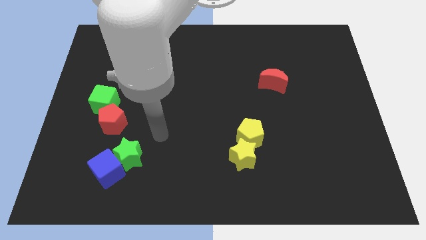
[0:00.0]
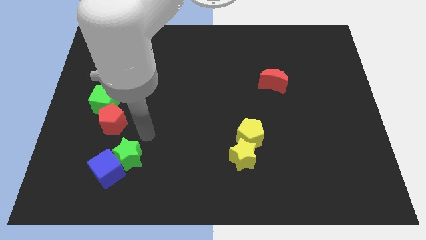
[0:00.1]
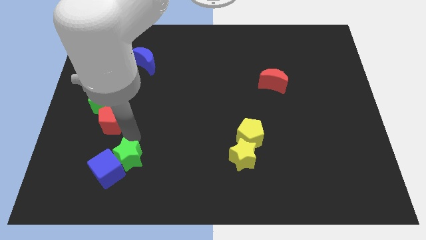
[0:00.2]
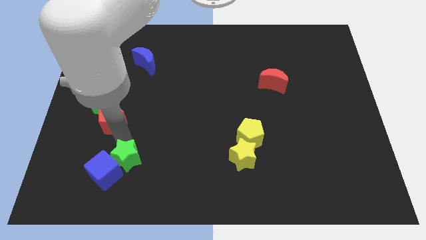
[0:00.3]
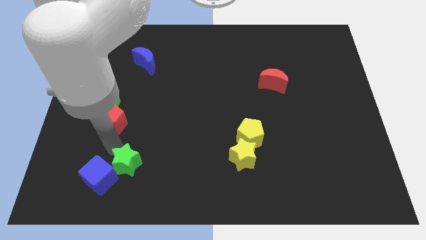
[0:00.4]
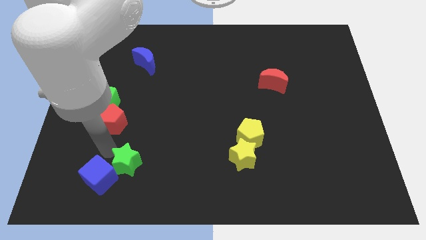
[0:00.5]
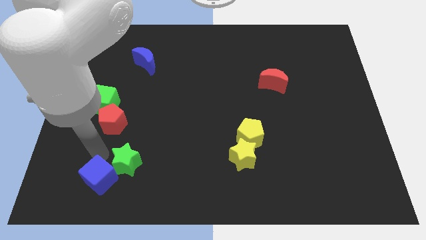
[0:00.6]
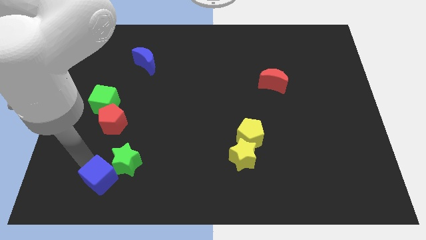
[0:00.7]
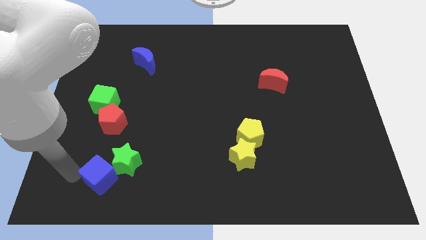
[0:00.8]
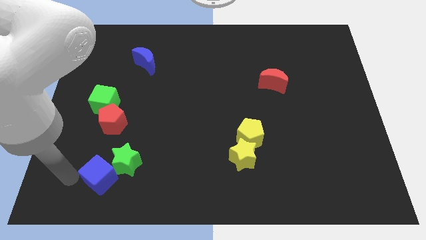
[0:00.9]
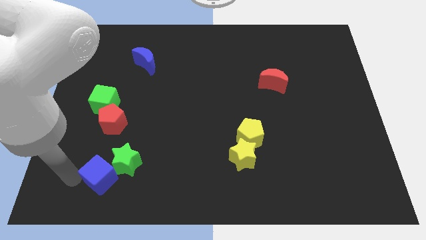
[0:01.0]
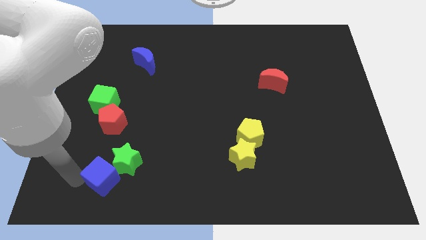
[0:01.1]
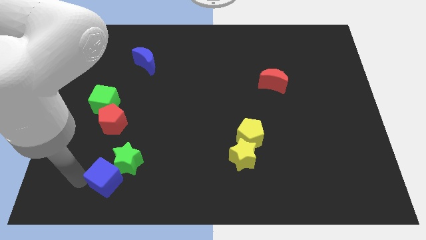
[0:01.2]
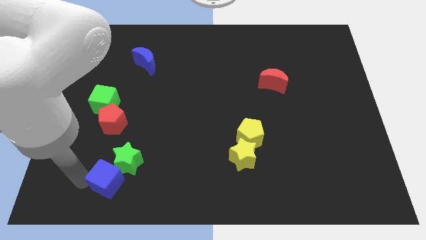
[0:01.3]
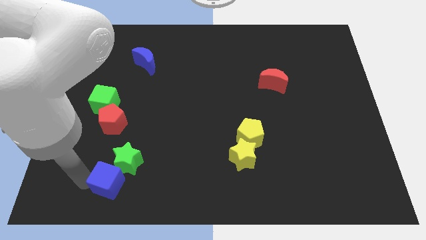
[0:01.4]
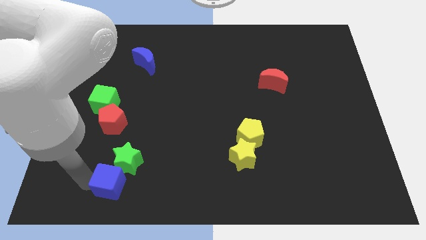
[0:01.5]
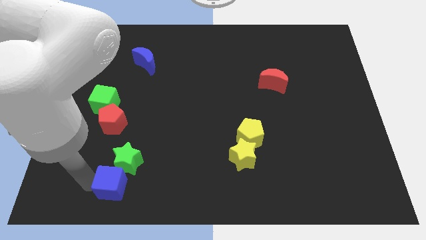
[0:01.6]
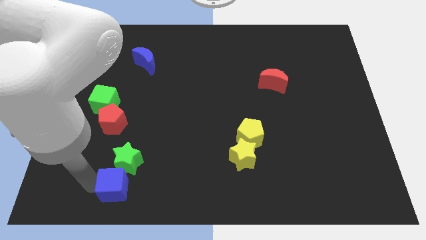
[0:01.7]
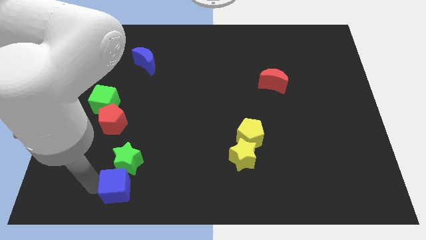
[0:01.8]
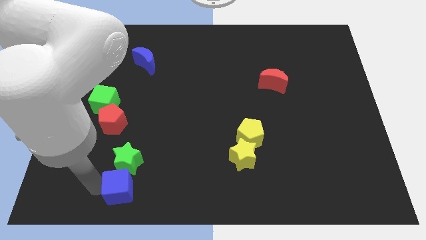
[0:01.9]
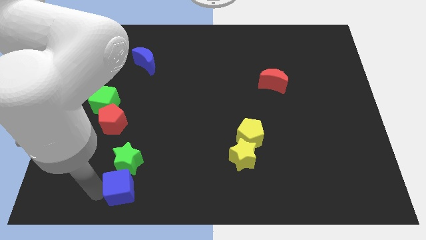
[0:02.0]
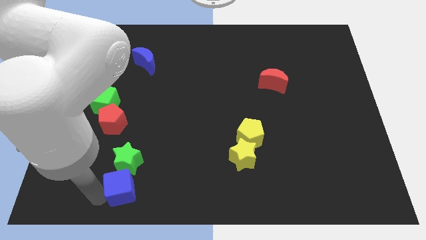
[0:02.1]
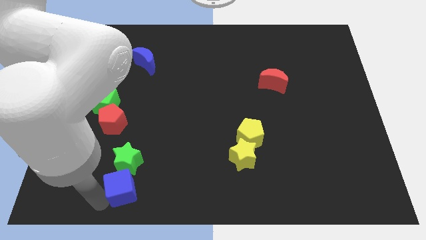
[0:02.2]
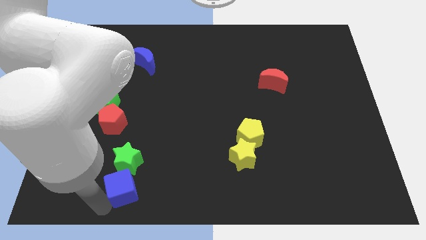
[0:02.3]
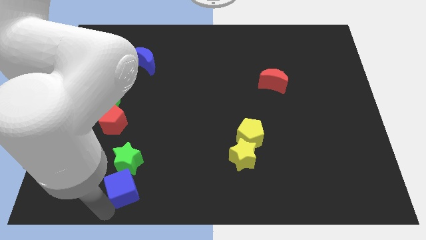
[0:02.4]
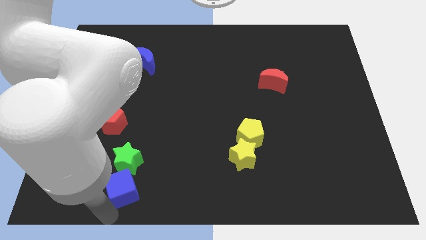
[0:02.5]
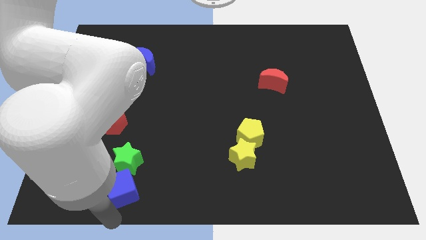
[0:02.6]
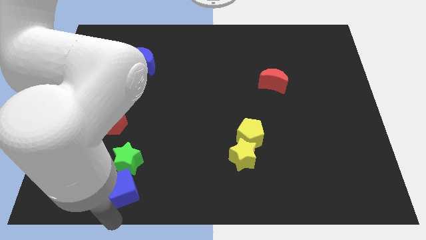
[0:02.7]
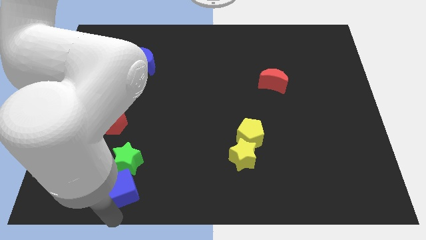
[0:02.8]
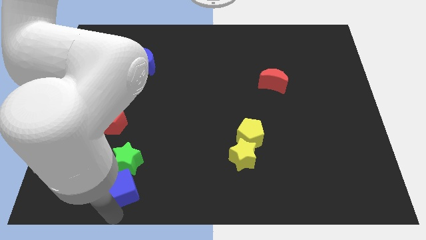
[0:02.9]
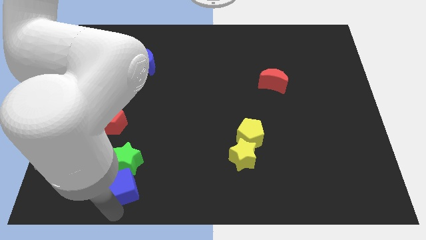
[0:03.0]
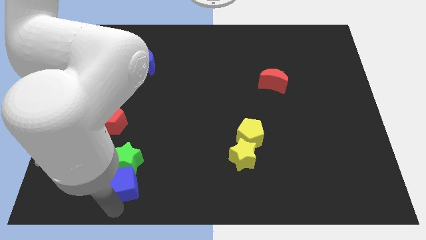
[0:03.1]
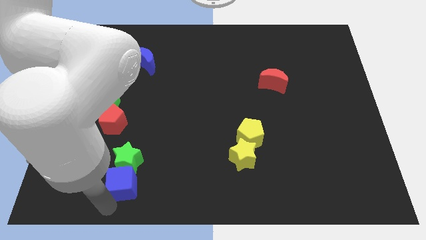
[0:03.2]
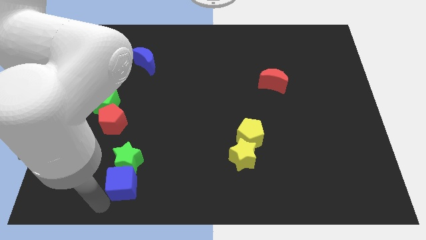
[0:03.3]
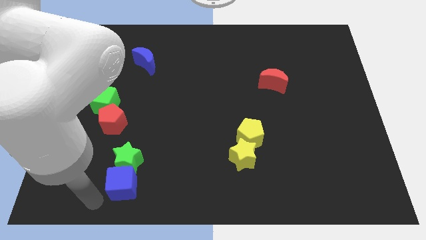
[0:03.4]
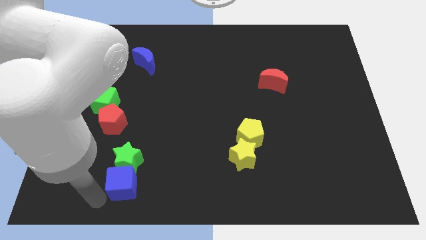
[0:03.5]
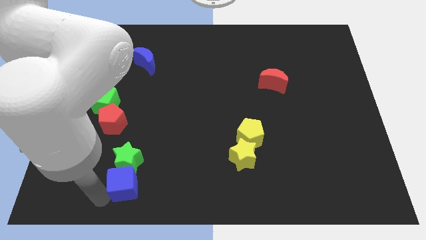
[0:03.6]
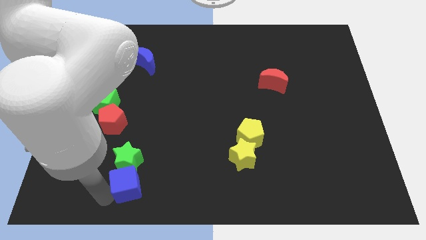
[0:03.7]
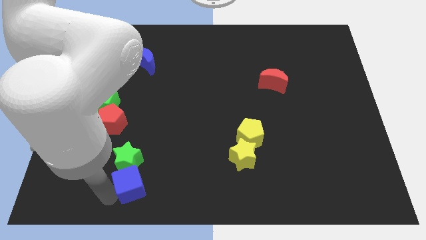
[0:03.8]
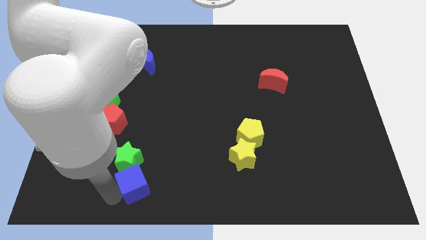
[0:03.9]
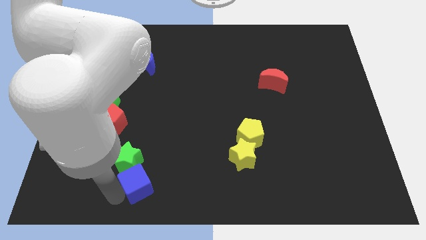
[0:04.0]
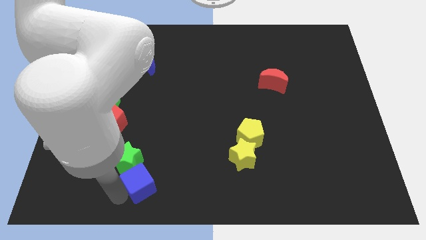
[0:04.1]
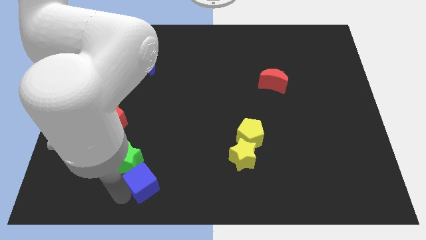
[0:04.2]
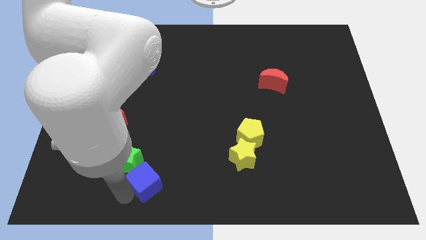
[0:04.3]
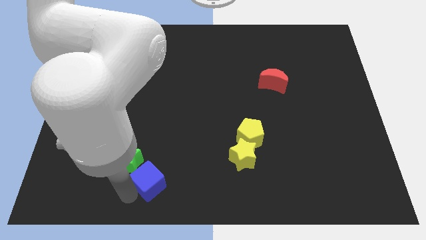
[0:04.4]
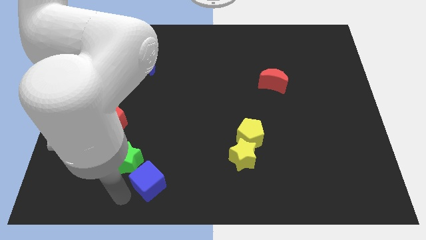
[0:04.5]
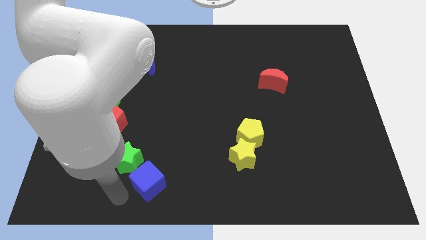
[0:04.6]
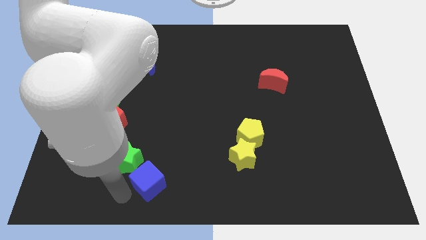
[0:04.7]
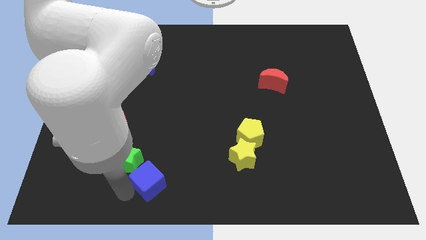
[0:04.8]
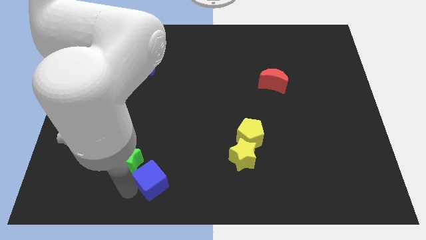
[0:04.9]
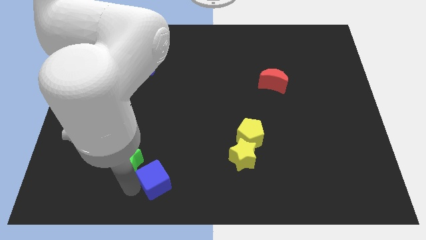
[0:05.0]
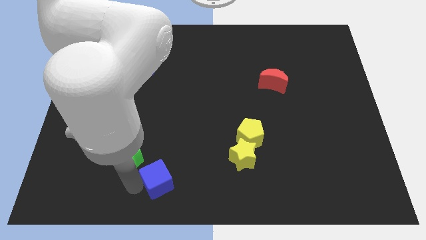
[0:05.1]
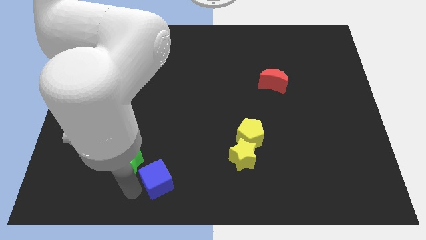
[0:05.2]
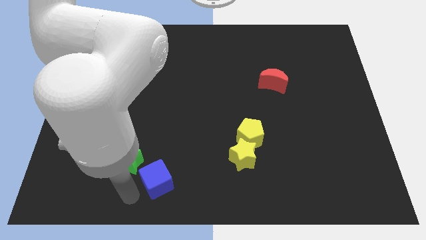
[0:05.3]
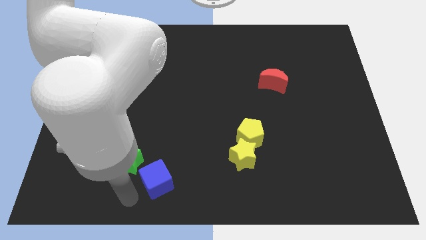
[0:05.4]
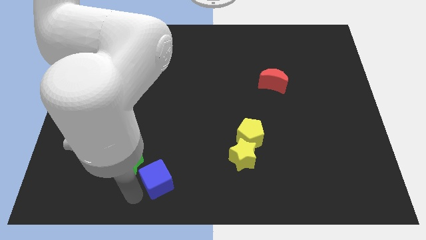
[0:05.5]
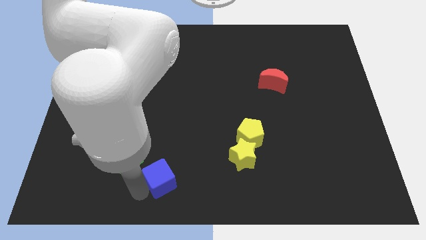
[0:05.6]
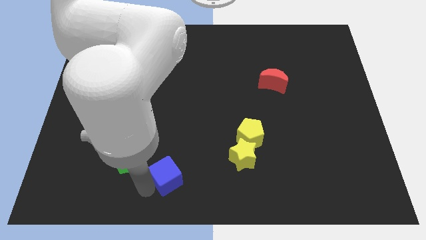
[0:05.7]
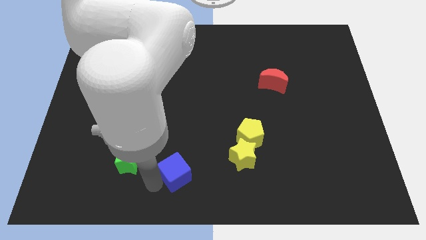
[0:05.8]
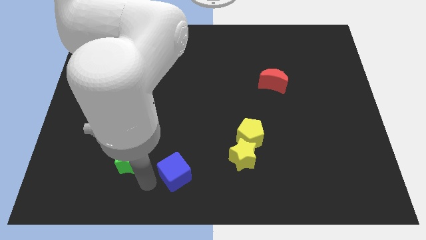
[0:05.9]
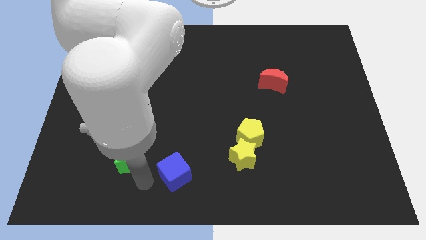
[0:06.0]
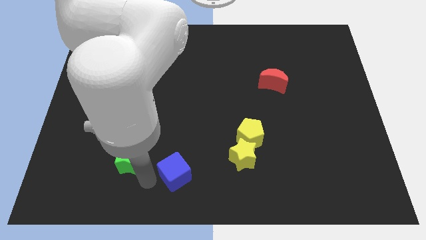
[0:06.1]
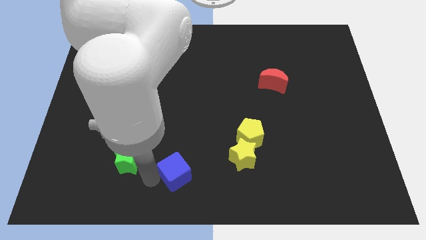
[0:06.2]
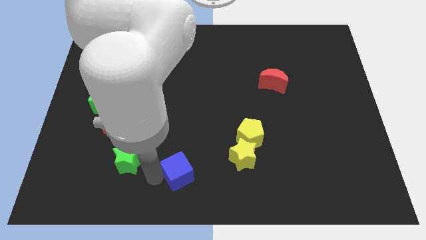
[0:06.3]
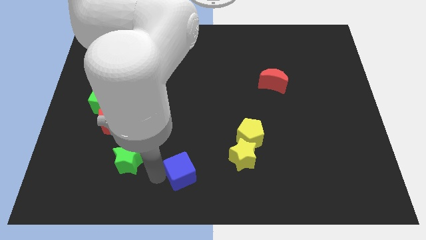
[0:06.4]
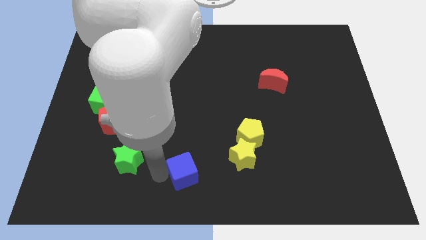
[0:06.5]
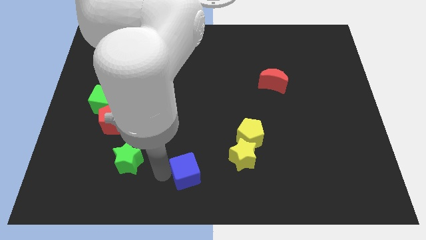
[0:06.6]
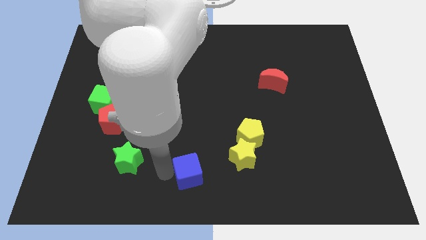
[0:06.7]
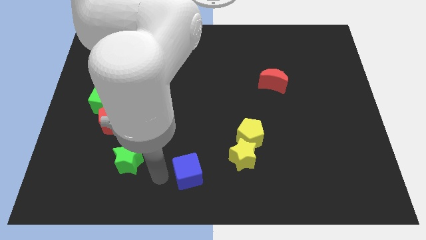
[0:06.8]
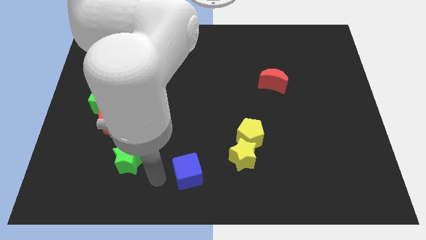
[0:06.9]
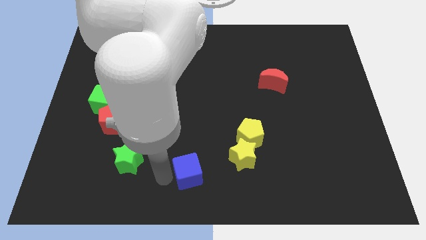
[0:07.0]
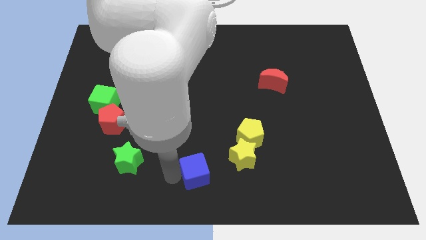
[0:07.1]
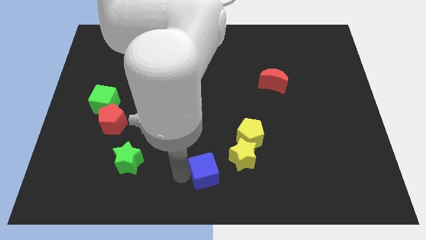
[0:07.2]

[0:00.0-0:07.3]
move the blue cube right

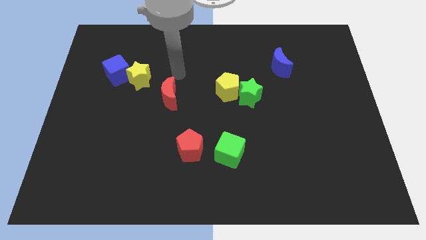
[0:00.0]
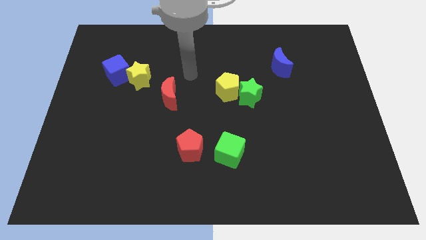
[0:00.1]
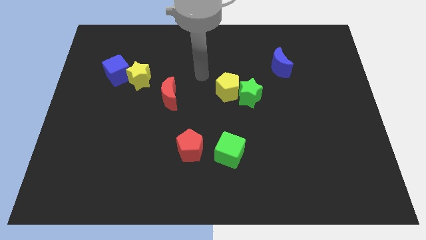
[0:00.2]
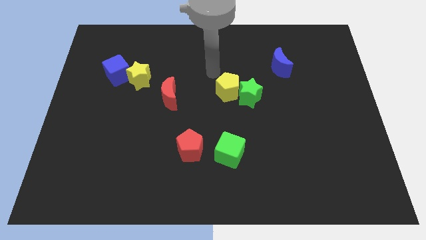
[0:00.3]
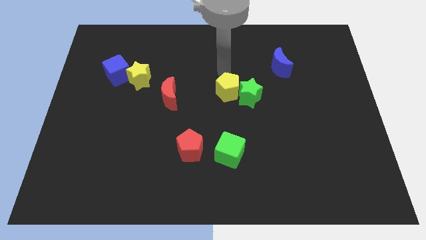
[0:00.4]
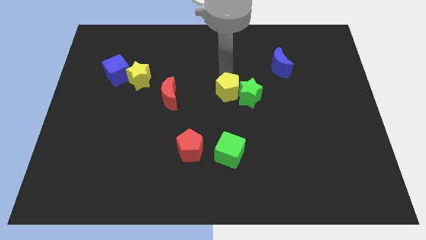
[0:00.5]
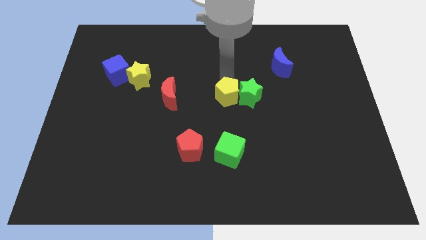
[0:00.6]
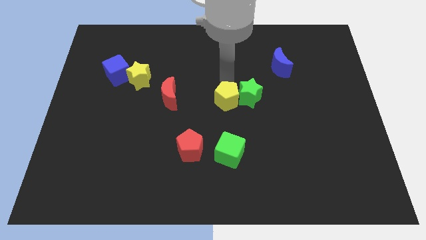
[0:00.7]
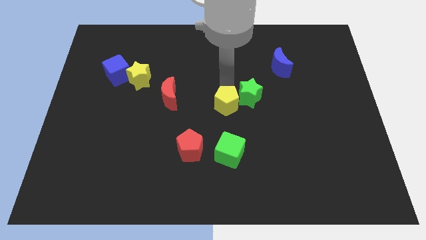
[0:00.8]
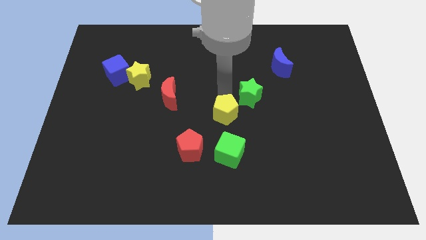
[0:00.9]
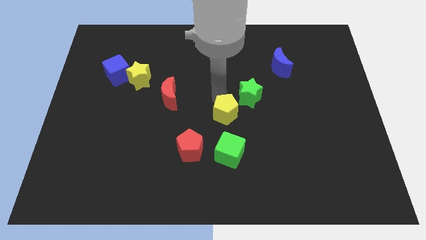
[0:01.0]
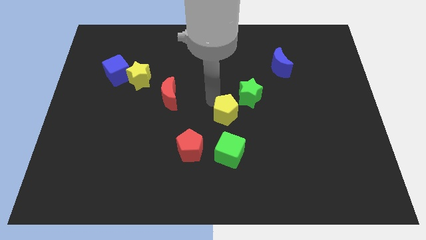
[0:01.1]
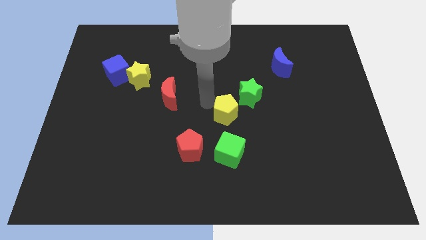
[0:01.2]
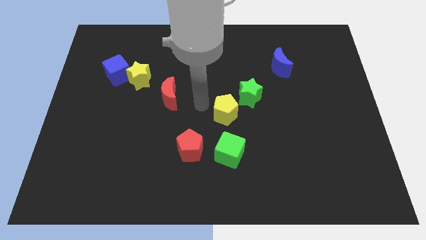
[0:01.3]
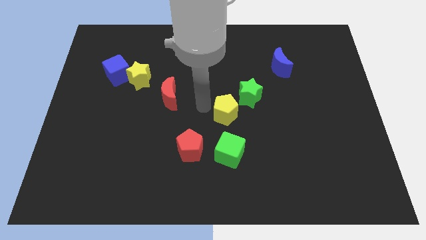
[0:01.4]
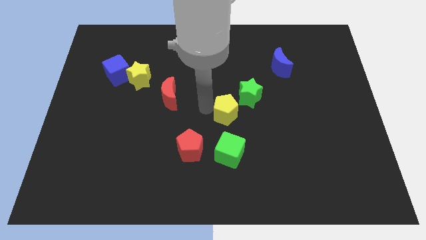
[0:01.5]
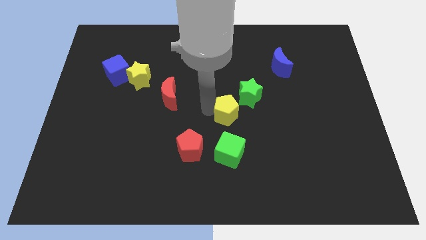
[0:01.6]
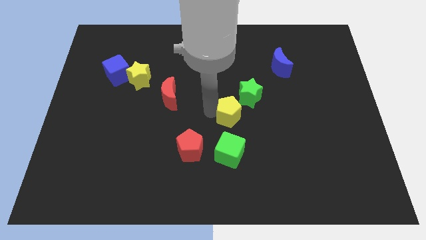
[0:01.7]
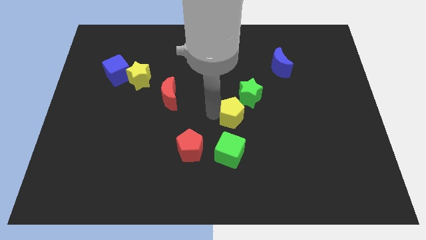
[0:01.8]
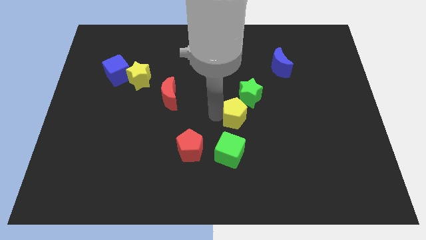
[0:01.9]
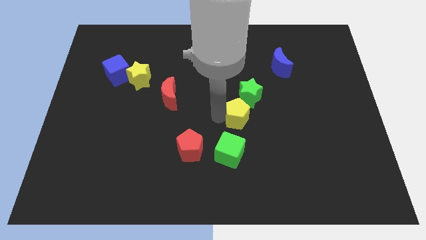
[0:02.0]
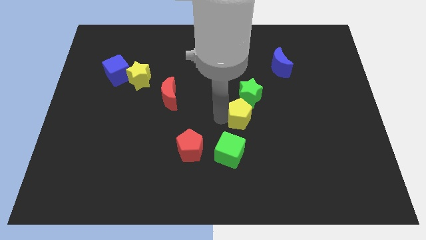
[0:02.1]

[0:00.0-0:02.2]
slightly move the yellow pentagon diagonally down and to the right
